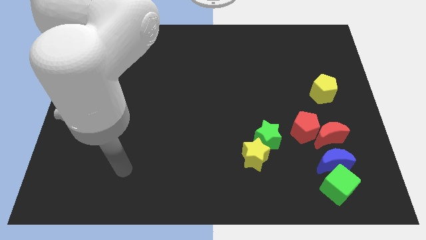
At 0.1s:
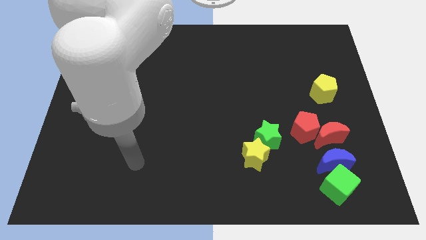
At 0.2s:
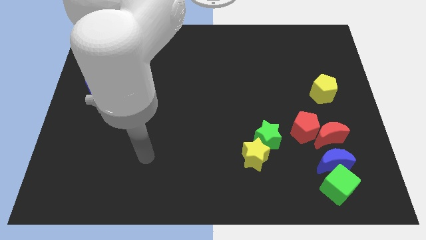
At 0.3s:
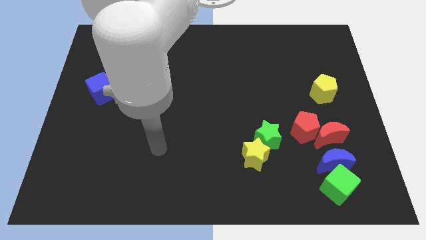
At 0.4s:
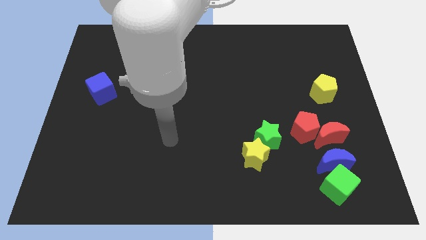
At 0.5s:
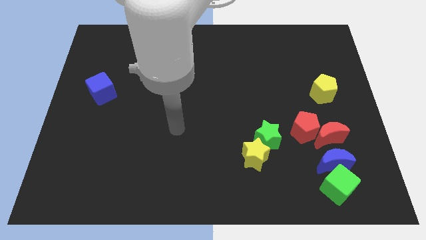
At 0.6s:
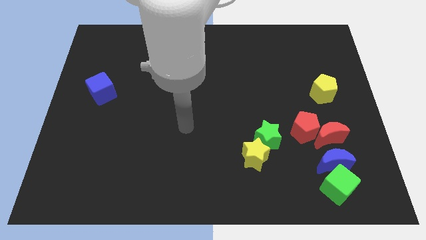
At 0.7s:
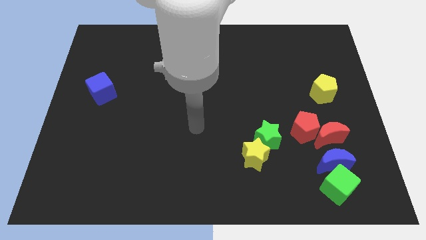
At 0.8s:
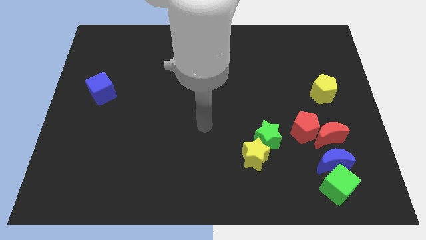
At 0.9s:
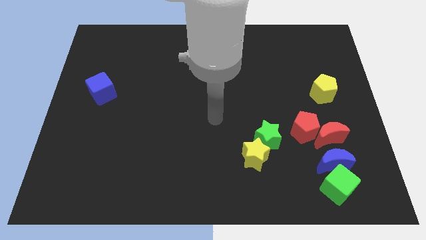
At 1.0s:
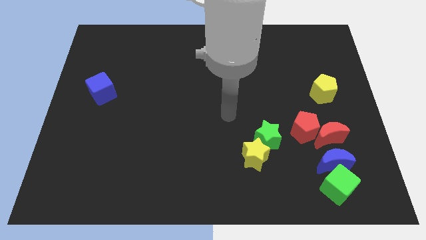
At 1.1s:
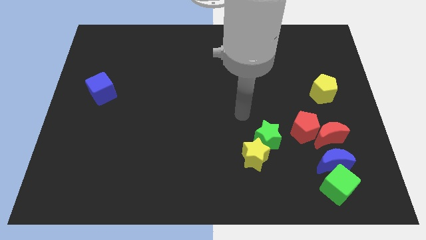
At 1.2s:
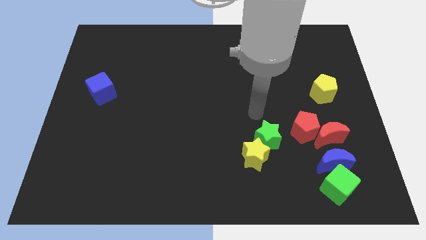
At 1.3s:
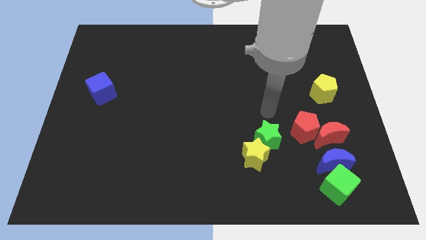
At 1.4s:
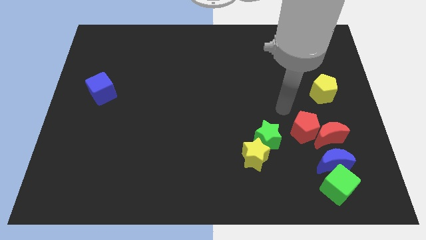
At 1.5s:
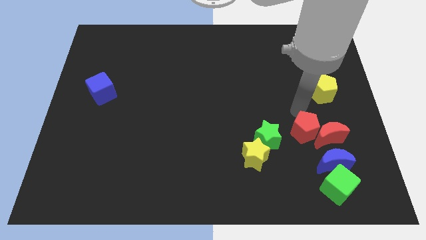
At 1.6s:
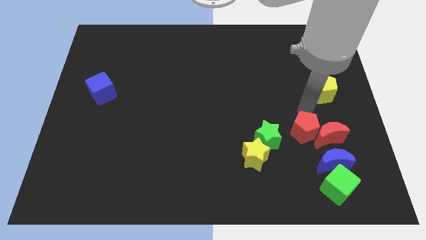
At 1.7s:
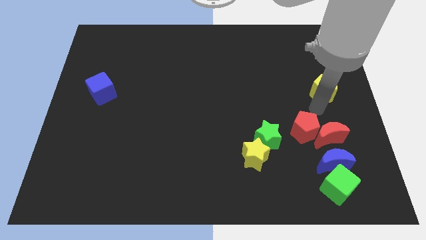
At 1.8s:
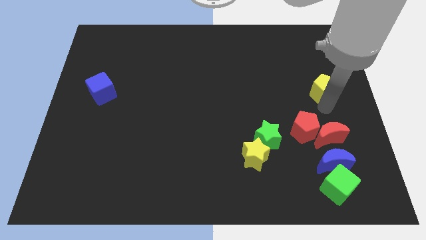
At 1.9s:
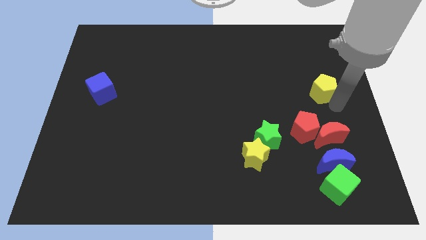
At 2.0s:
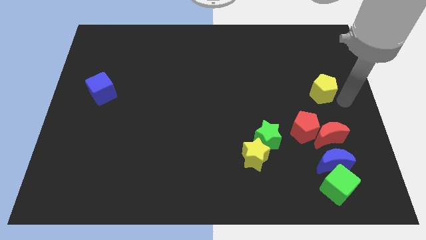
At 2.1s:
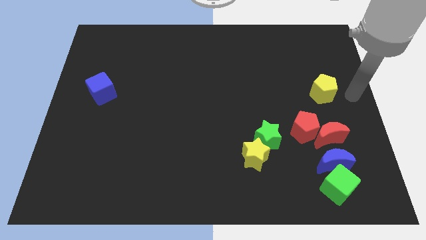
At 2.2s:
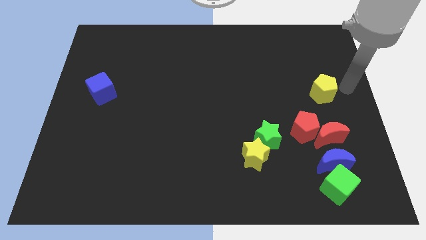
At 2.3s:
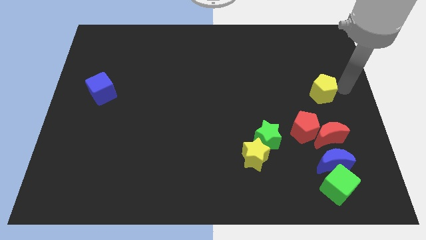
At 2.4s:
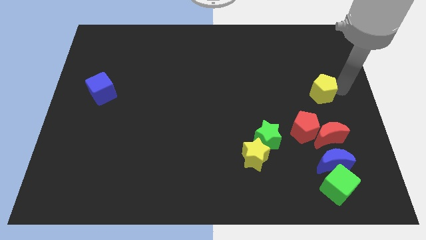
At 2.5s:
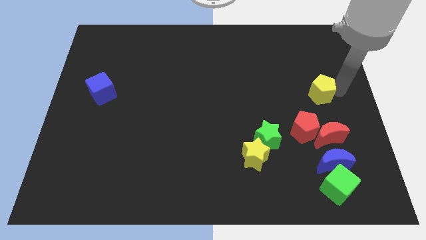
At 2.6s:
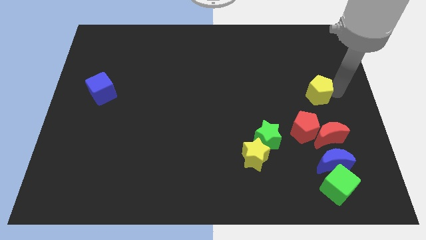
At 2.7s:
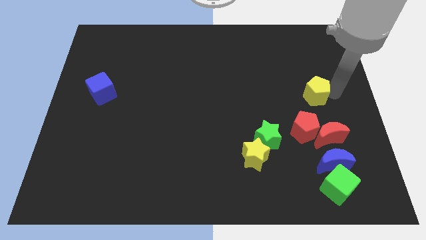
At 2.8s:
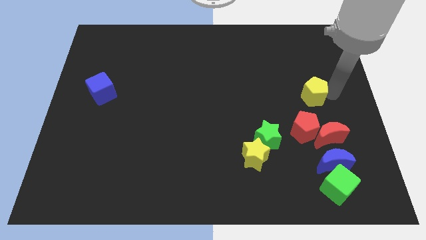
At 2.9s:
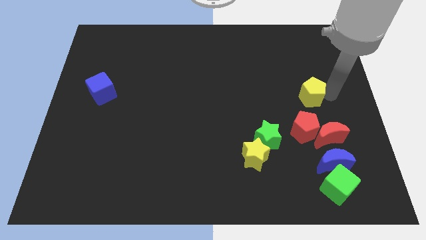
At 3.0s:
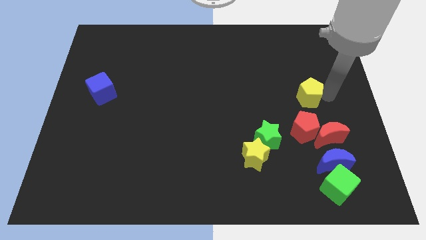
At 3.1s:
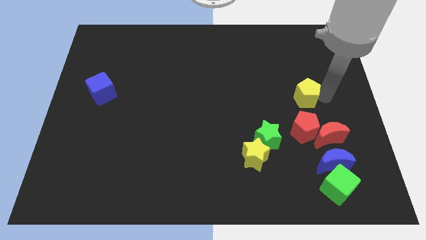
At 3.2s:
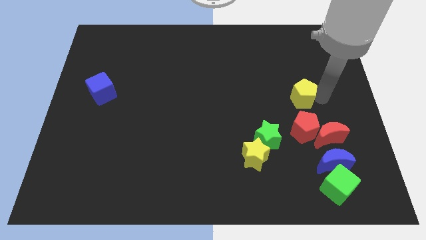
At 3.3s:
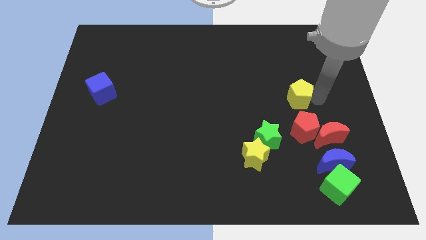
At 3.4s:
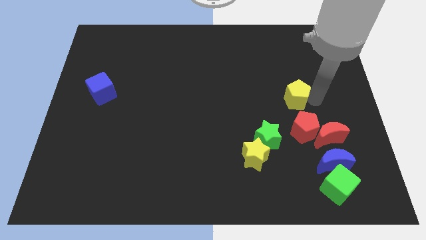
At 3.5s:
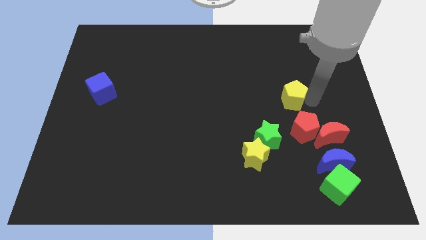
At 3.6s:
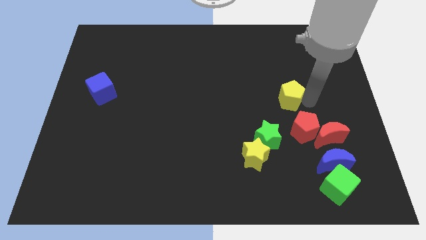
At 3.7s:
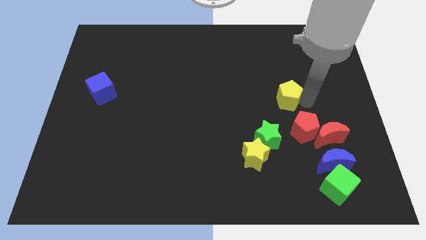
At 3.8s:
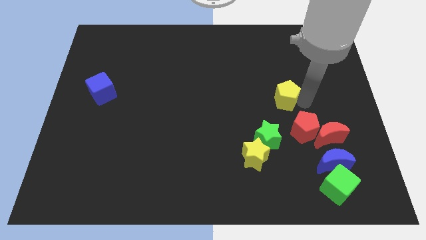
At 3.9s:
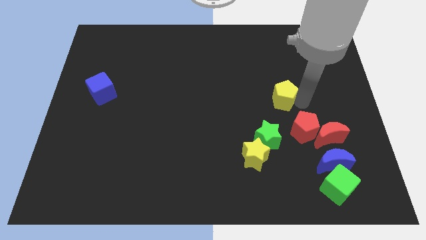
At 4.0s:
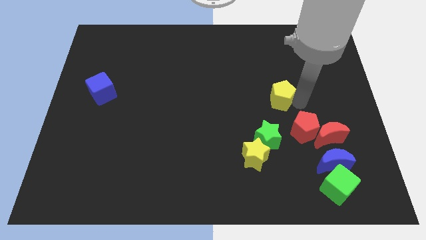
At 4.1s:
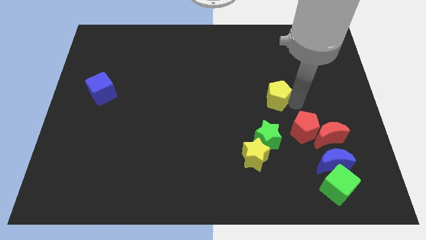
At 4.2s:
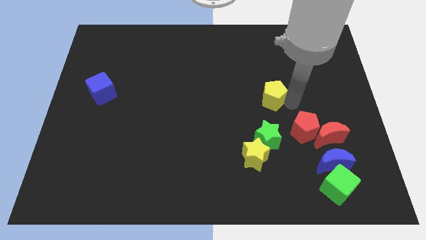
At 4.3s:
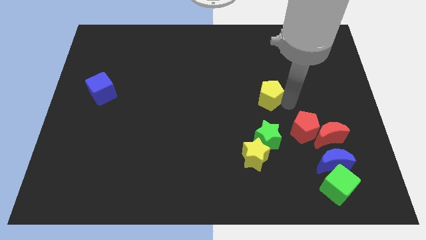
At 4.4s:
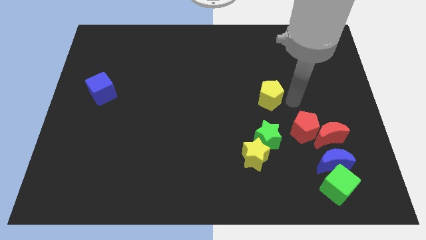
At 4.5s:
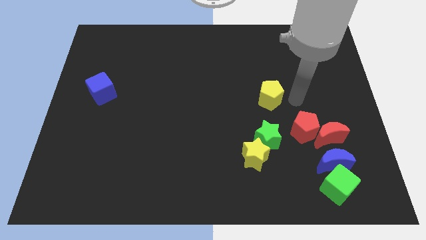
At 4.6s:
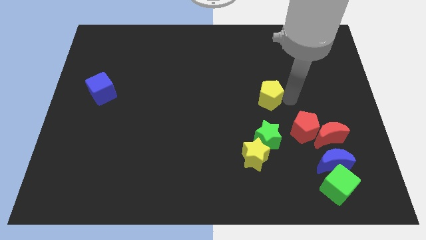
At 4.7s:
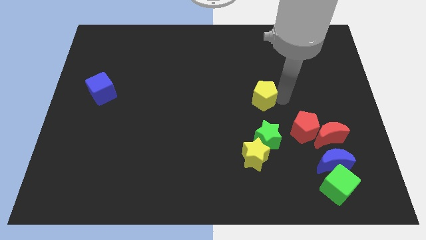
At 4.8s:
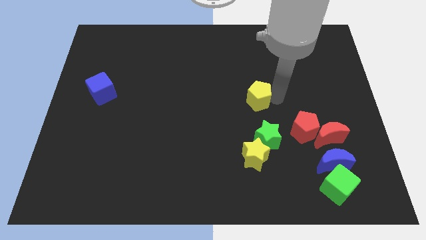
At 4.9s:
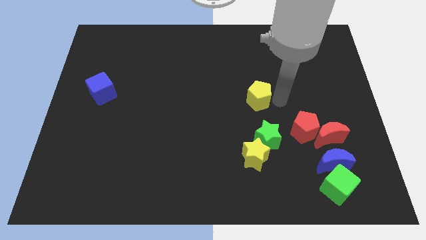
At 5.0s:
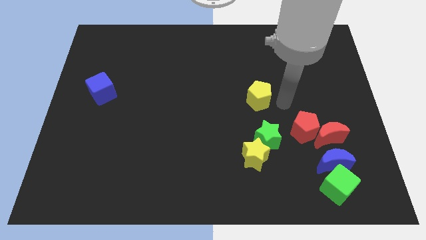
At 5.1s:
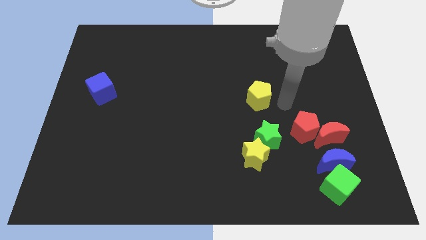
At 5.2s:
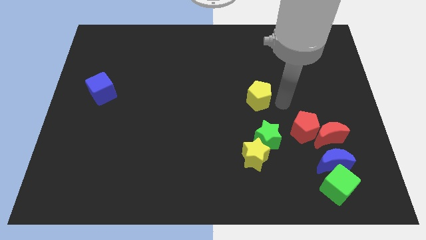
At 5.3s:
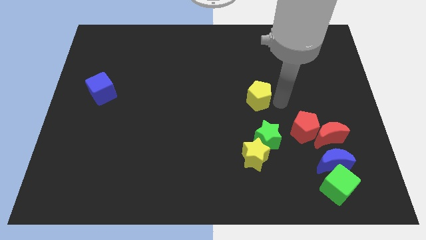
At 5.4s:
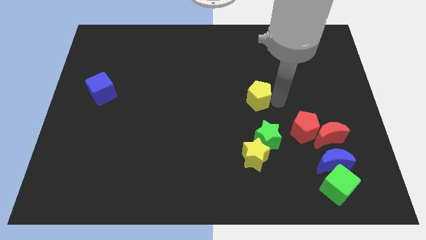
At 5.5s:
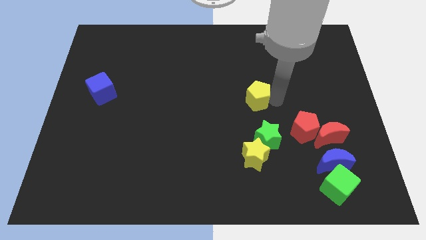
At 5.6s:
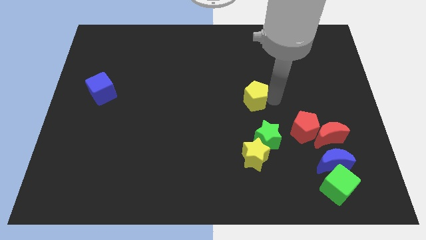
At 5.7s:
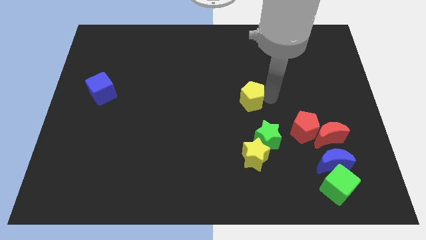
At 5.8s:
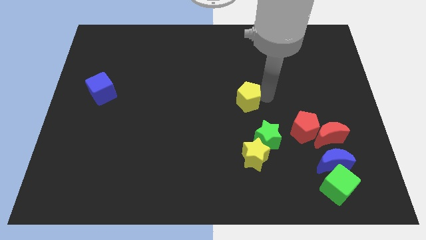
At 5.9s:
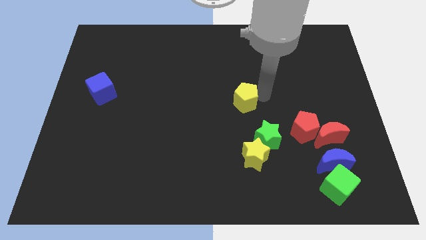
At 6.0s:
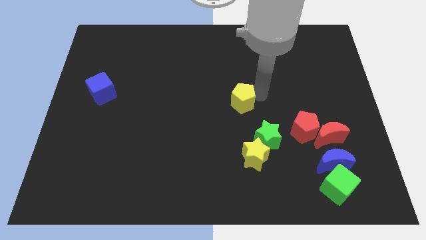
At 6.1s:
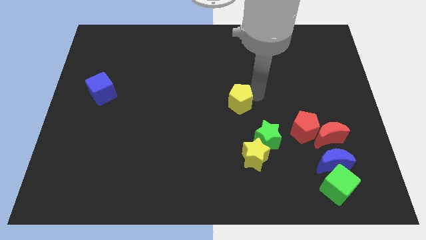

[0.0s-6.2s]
push the yellow pentagon left

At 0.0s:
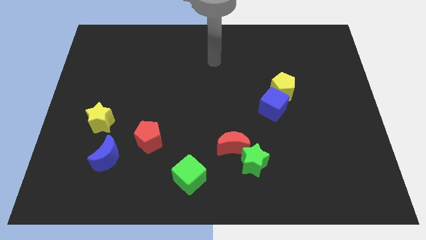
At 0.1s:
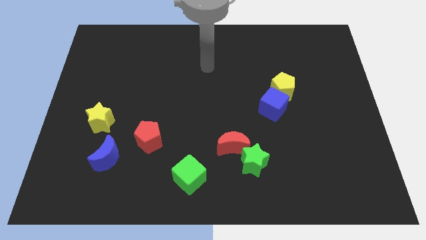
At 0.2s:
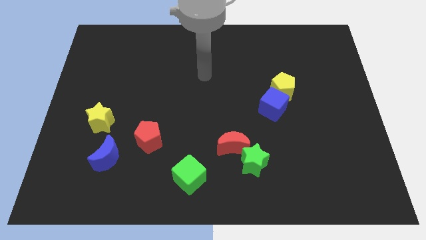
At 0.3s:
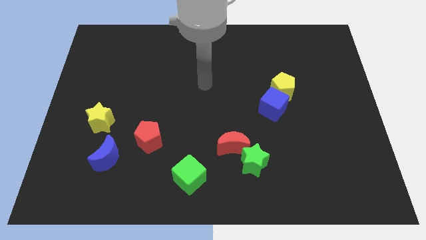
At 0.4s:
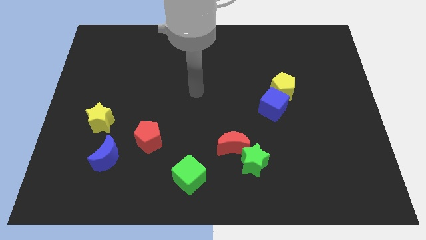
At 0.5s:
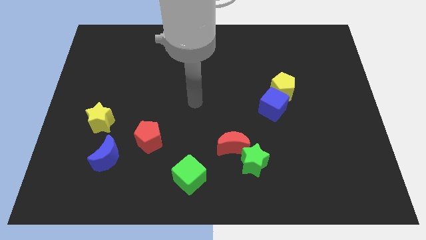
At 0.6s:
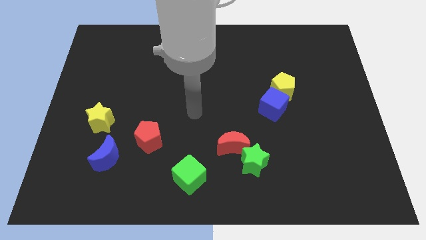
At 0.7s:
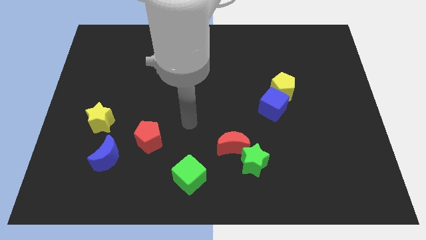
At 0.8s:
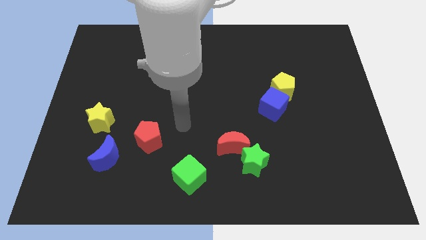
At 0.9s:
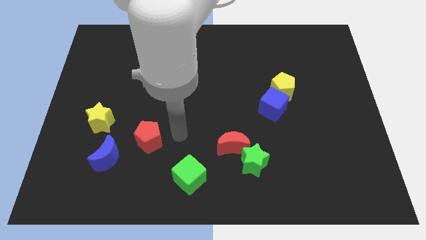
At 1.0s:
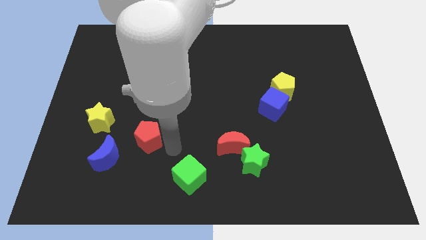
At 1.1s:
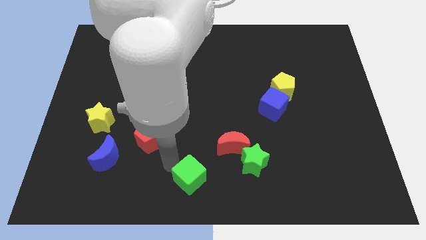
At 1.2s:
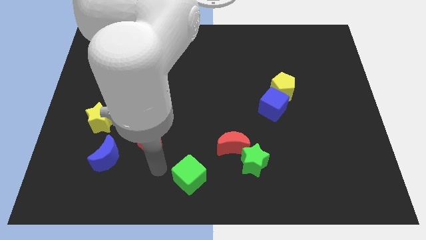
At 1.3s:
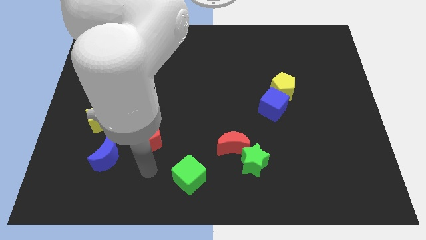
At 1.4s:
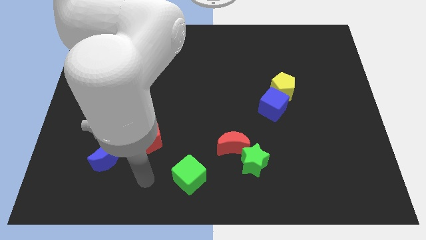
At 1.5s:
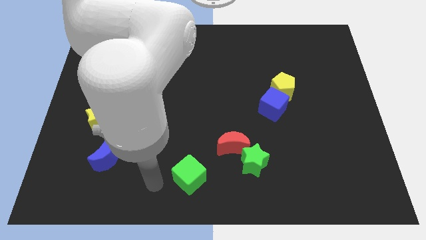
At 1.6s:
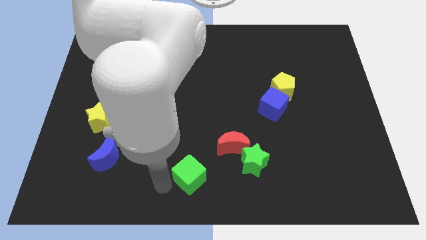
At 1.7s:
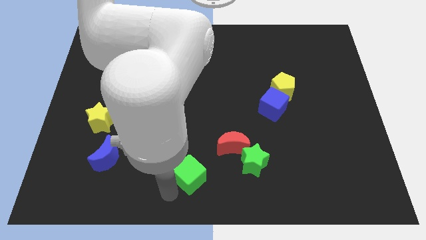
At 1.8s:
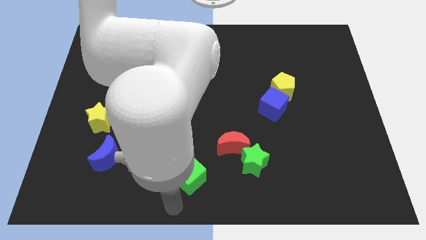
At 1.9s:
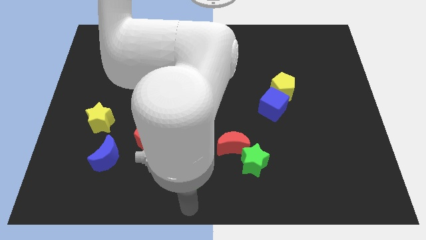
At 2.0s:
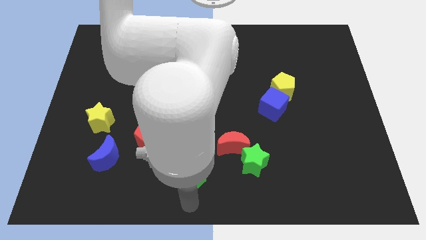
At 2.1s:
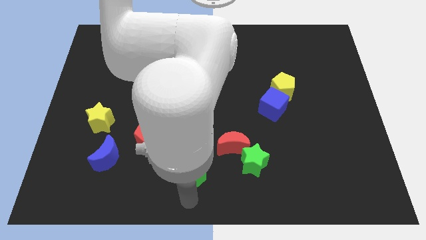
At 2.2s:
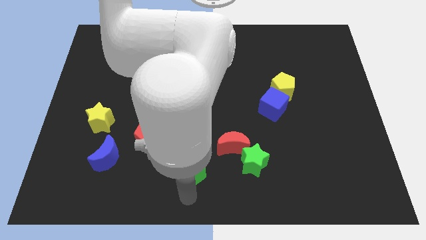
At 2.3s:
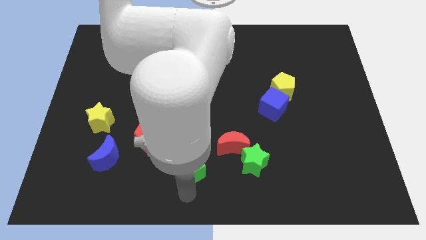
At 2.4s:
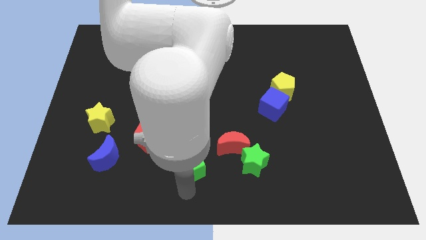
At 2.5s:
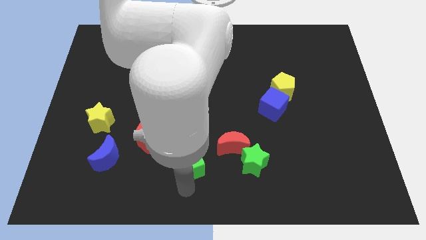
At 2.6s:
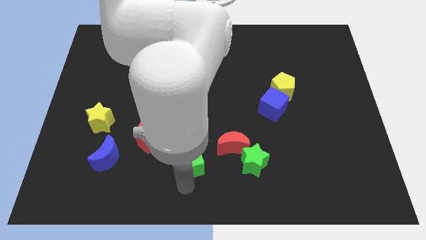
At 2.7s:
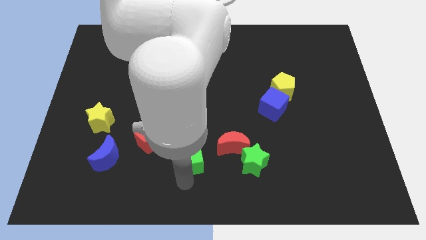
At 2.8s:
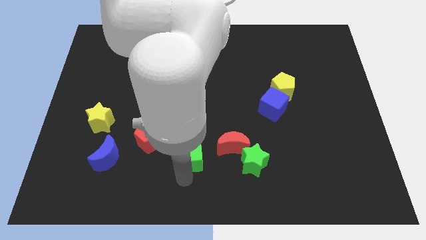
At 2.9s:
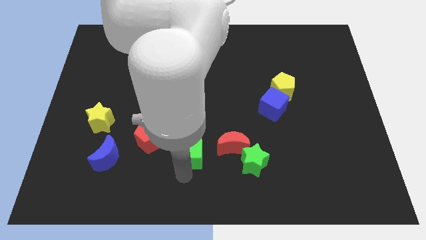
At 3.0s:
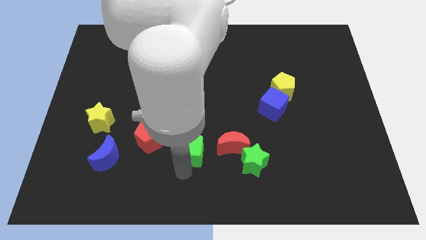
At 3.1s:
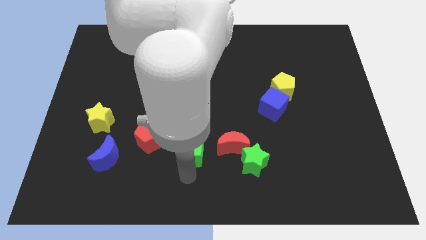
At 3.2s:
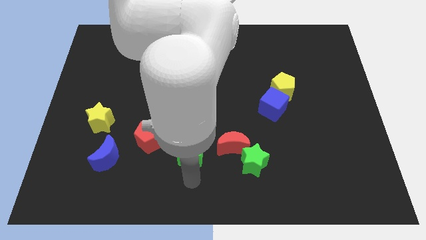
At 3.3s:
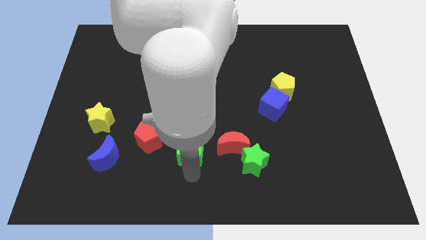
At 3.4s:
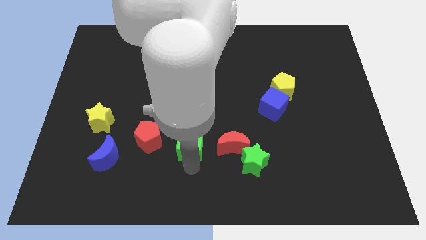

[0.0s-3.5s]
slightly push the green cube upwards
